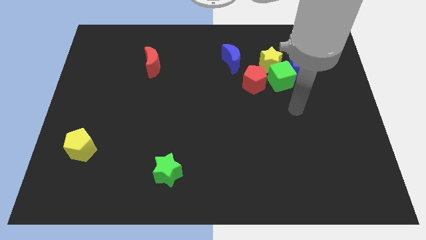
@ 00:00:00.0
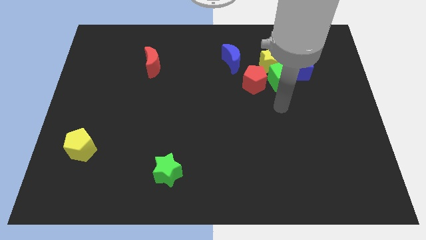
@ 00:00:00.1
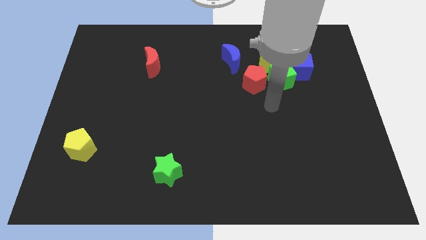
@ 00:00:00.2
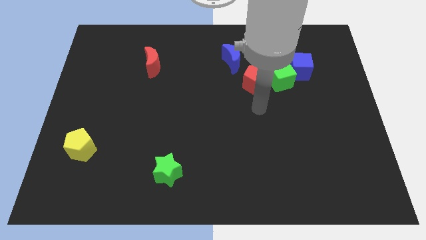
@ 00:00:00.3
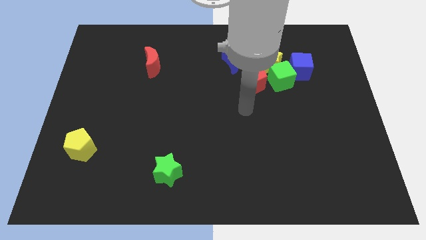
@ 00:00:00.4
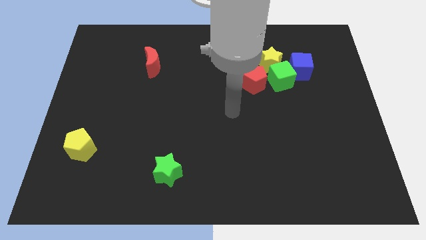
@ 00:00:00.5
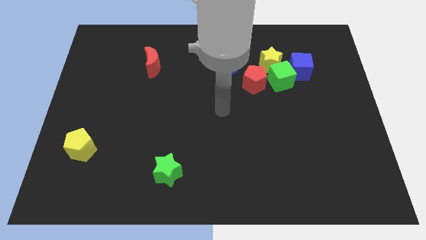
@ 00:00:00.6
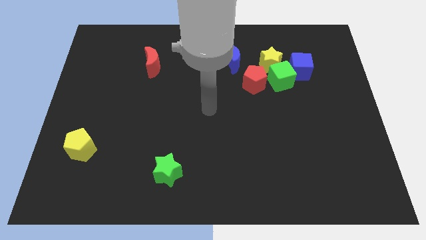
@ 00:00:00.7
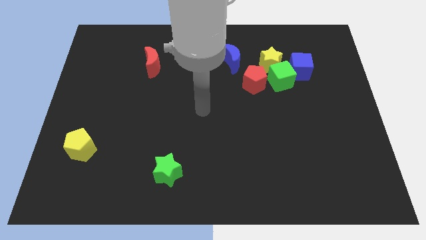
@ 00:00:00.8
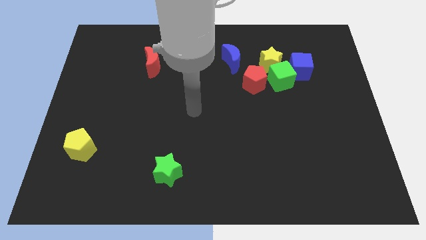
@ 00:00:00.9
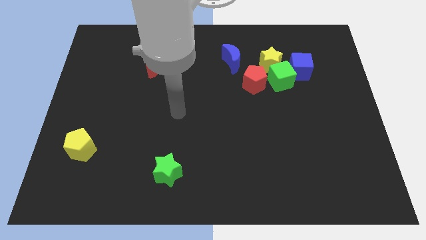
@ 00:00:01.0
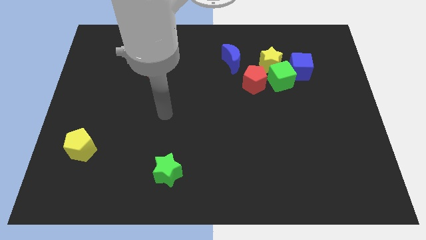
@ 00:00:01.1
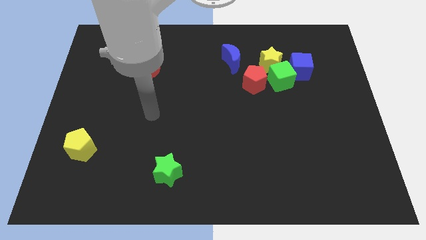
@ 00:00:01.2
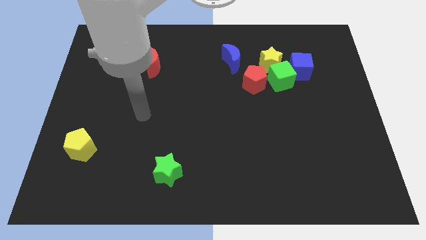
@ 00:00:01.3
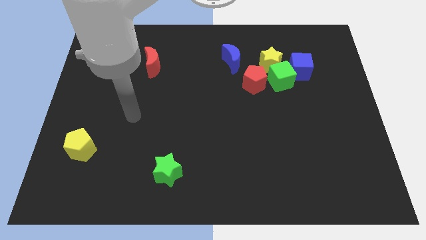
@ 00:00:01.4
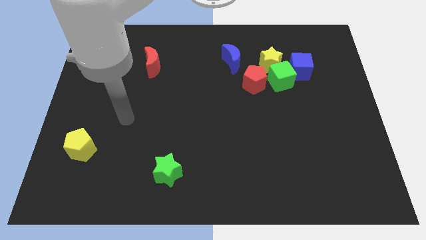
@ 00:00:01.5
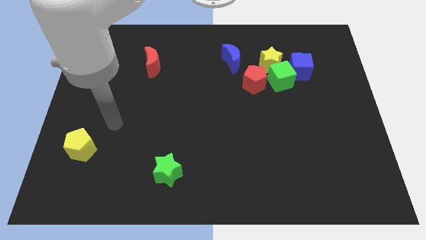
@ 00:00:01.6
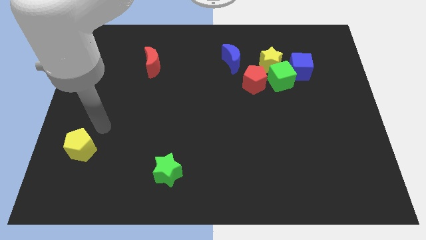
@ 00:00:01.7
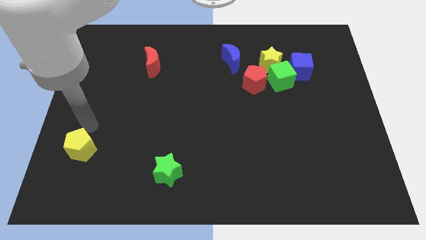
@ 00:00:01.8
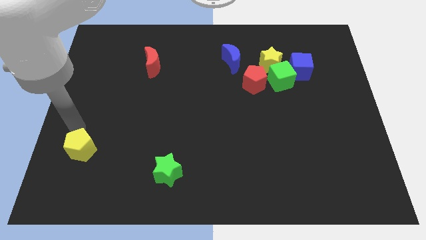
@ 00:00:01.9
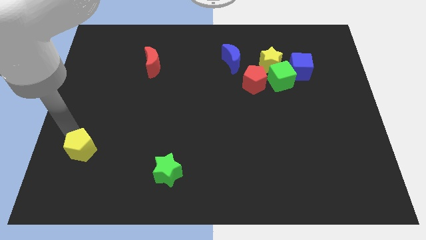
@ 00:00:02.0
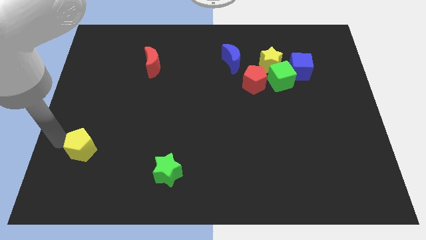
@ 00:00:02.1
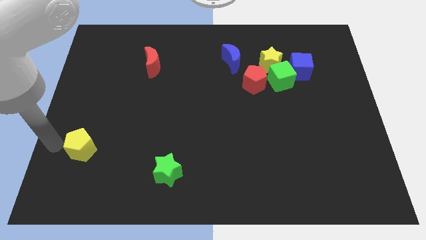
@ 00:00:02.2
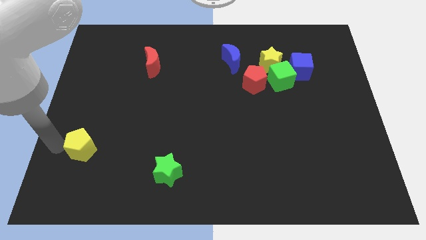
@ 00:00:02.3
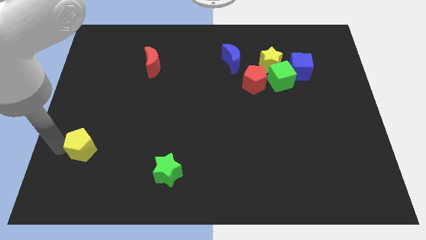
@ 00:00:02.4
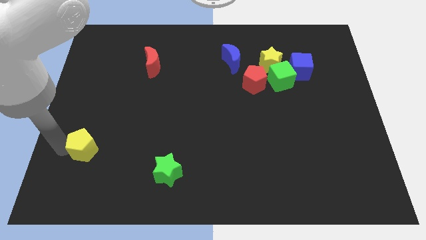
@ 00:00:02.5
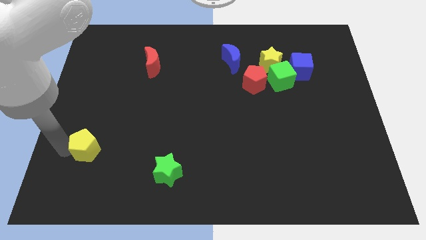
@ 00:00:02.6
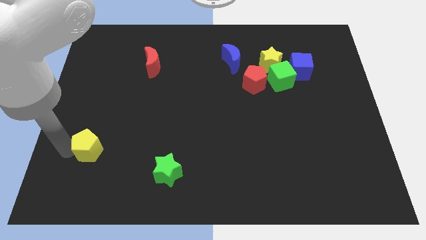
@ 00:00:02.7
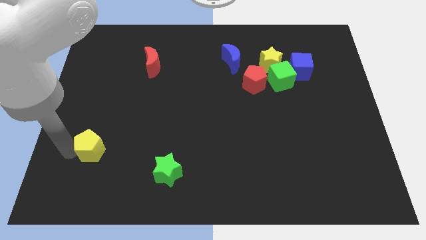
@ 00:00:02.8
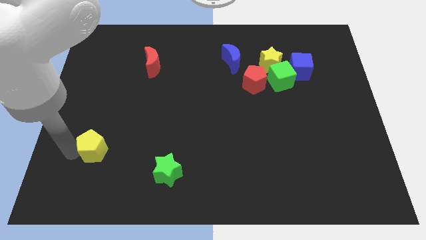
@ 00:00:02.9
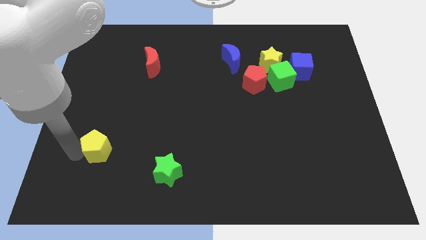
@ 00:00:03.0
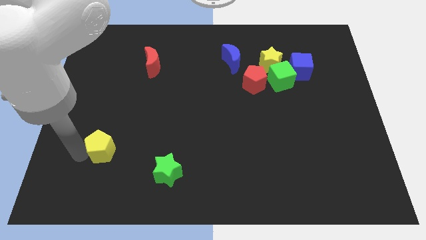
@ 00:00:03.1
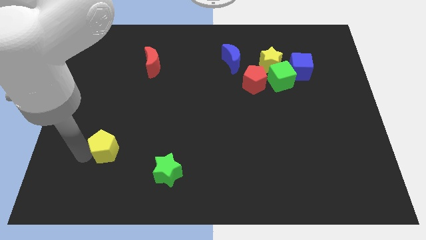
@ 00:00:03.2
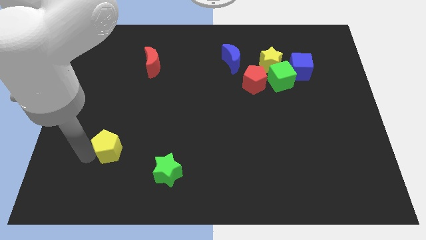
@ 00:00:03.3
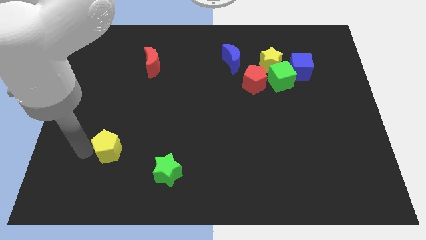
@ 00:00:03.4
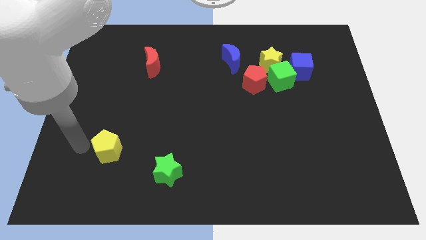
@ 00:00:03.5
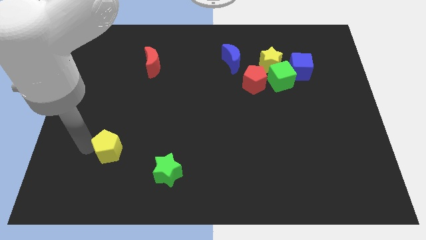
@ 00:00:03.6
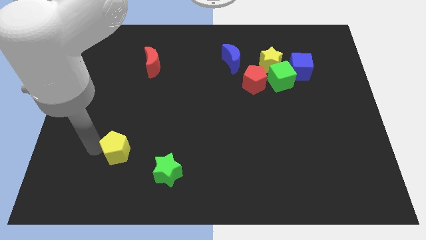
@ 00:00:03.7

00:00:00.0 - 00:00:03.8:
move the yellow pentagon somewhat right

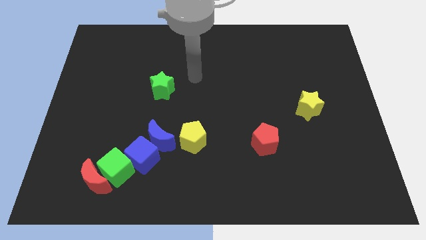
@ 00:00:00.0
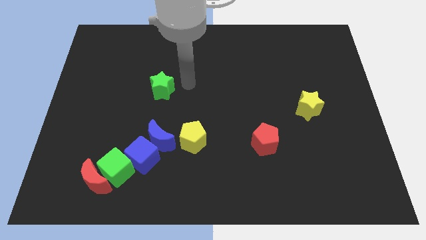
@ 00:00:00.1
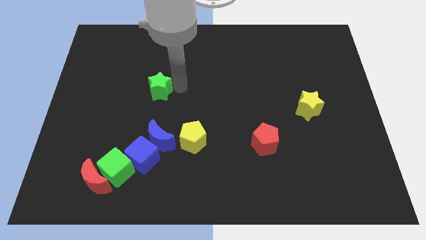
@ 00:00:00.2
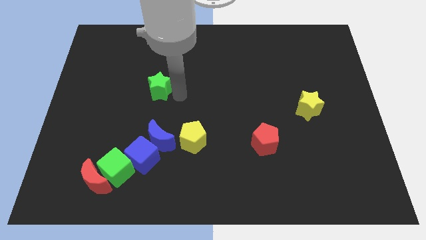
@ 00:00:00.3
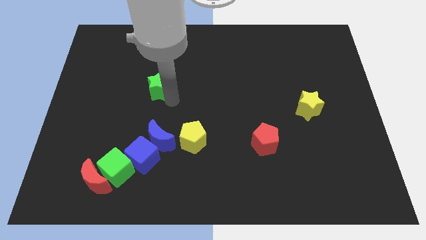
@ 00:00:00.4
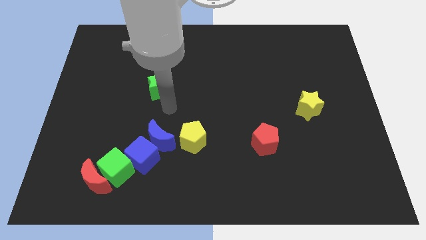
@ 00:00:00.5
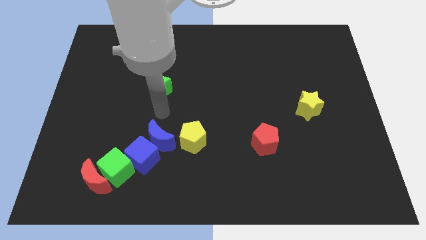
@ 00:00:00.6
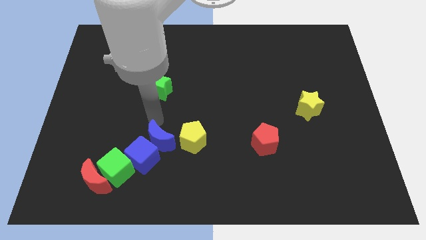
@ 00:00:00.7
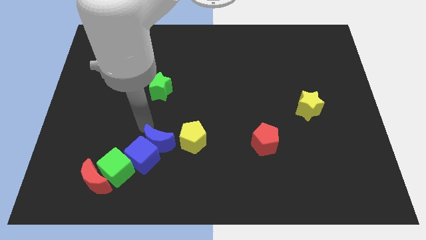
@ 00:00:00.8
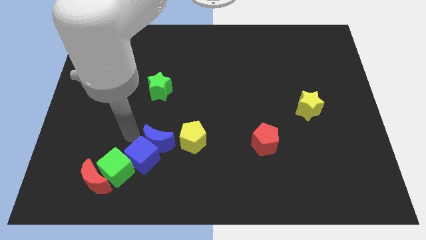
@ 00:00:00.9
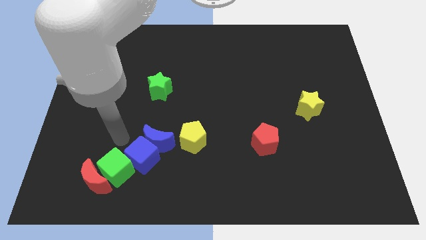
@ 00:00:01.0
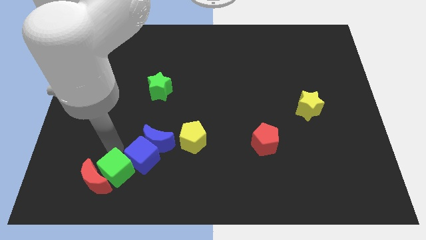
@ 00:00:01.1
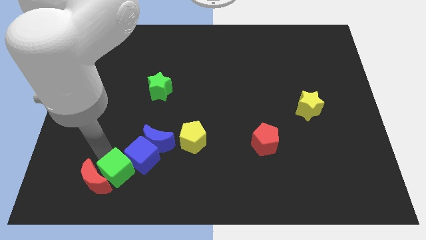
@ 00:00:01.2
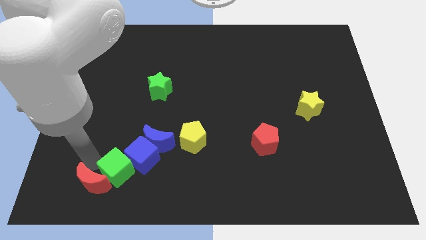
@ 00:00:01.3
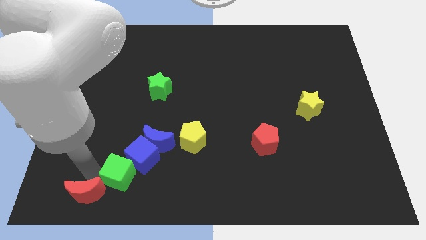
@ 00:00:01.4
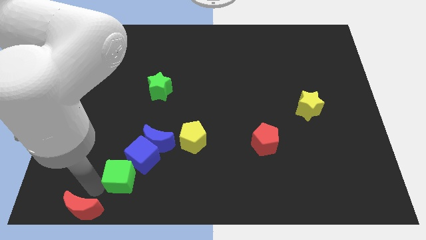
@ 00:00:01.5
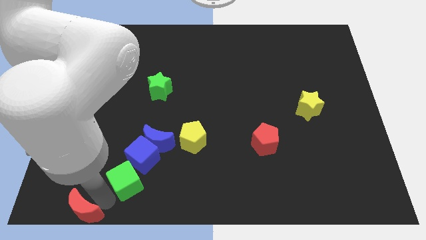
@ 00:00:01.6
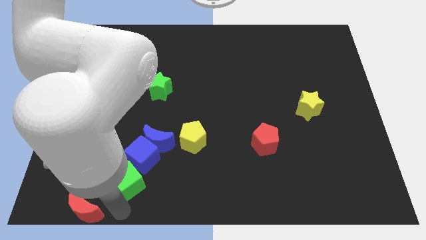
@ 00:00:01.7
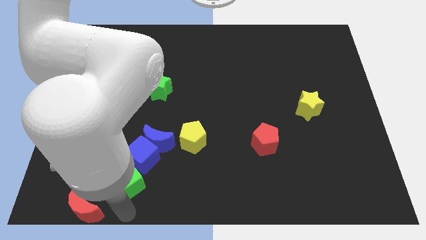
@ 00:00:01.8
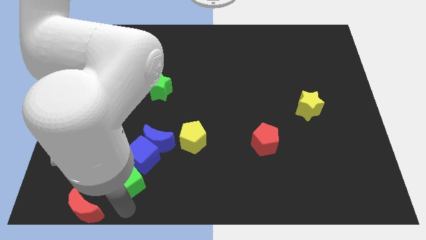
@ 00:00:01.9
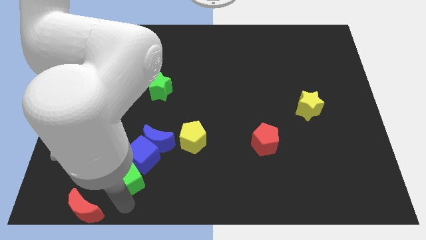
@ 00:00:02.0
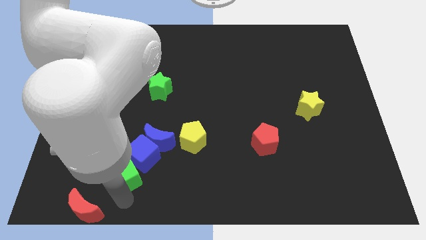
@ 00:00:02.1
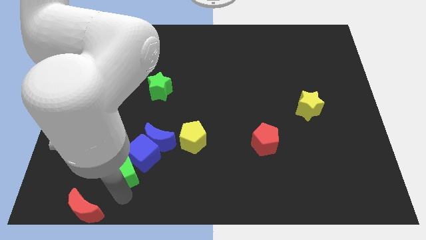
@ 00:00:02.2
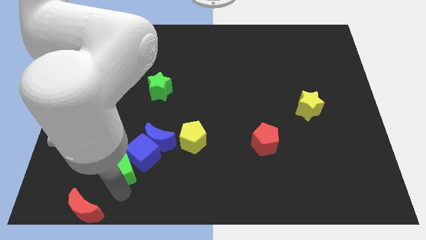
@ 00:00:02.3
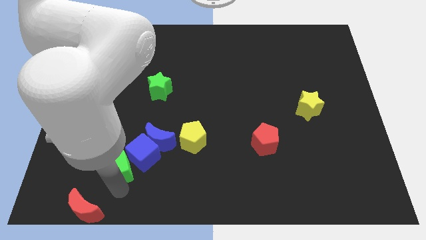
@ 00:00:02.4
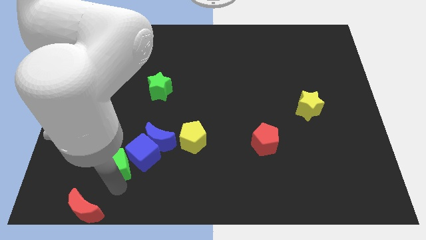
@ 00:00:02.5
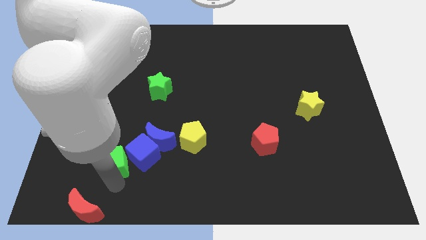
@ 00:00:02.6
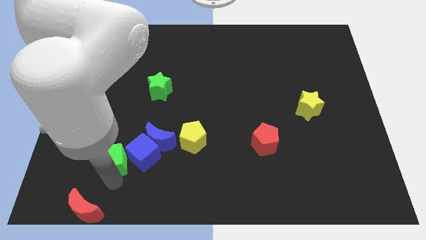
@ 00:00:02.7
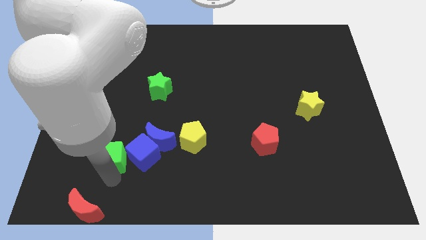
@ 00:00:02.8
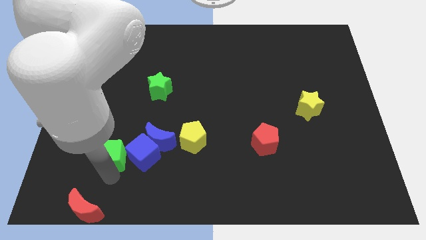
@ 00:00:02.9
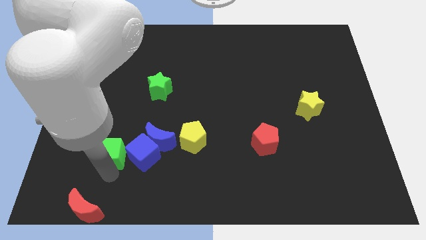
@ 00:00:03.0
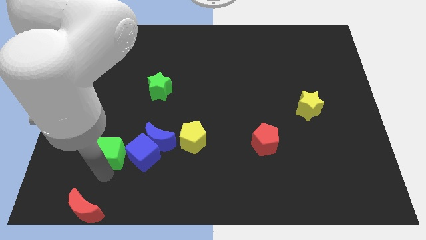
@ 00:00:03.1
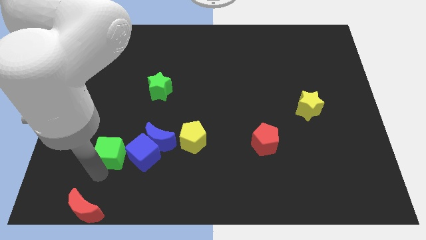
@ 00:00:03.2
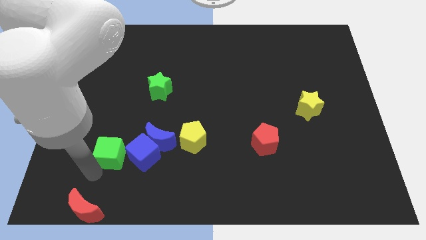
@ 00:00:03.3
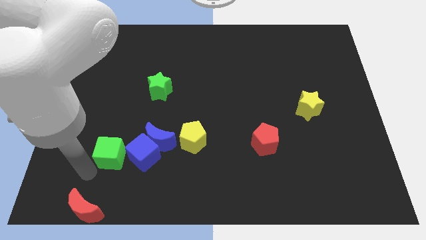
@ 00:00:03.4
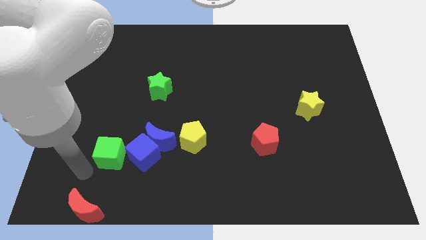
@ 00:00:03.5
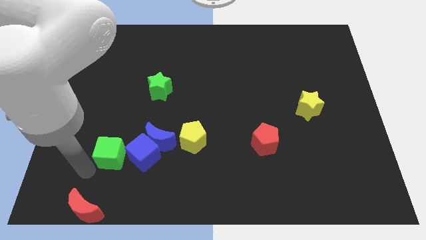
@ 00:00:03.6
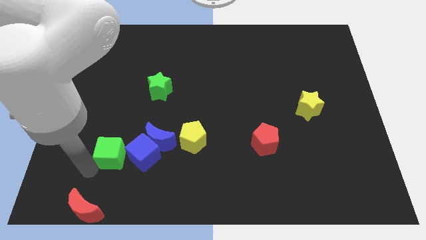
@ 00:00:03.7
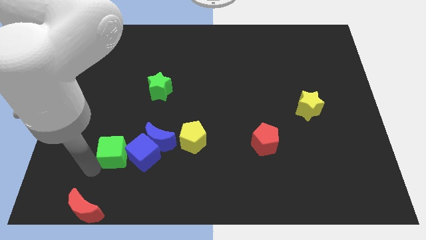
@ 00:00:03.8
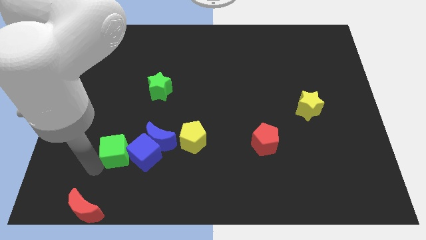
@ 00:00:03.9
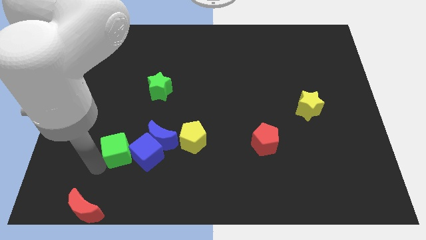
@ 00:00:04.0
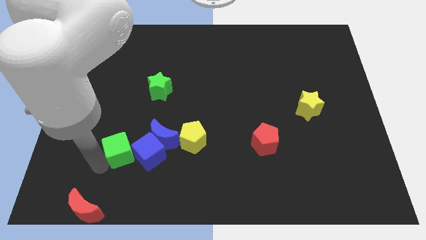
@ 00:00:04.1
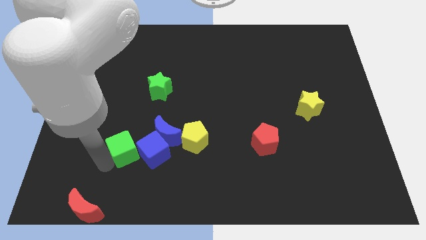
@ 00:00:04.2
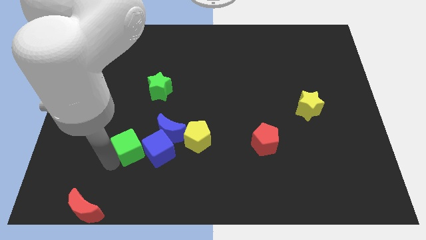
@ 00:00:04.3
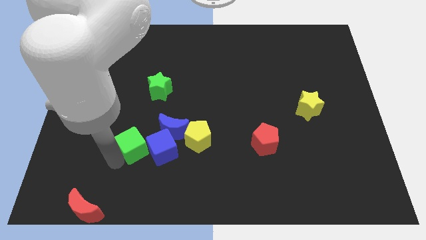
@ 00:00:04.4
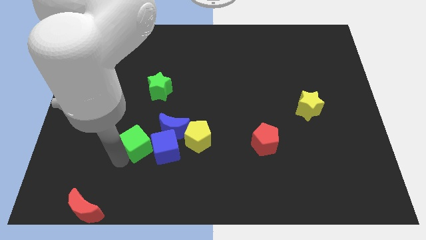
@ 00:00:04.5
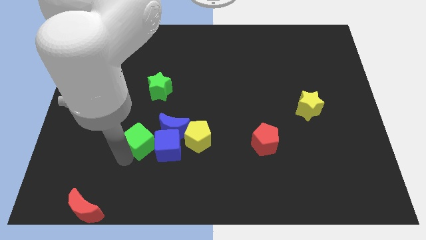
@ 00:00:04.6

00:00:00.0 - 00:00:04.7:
slide the green cube somewhat upwards and right diagonally
